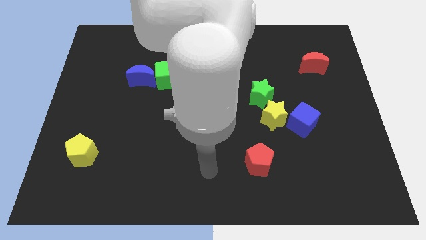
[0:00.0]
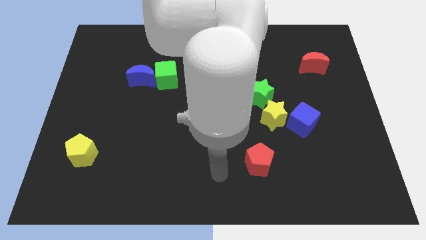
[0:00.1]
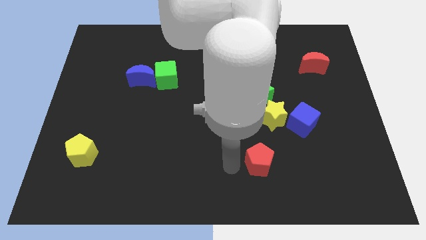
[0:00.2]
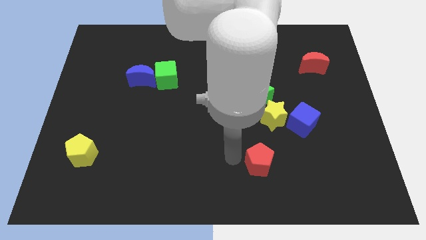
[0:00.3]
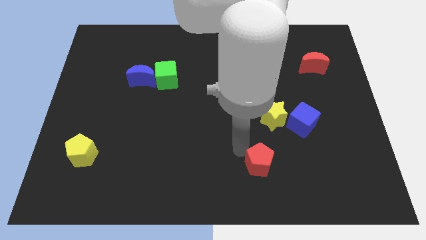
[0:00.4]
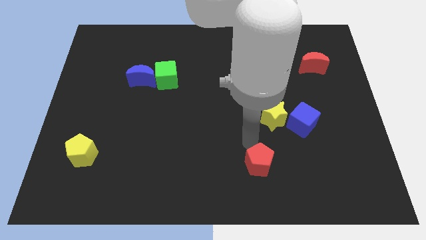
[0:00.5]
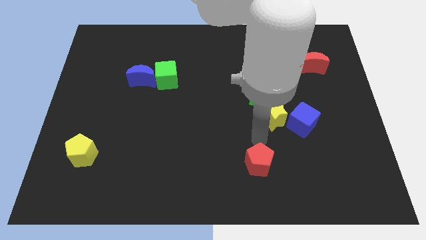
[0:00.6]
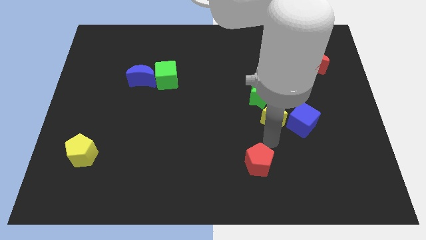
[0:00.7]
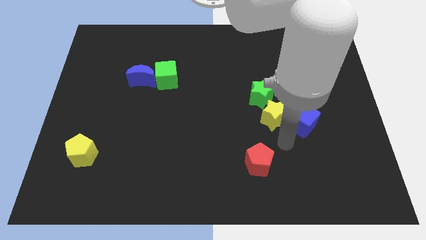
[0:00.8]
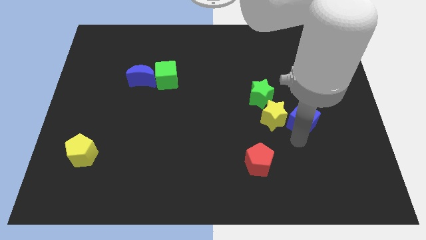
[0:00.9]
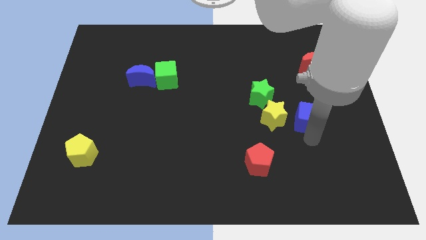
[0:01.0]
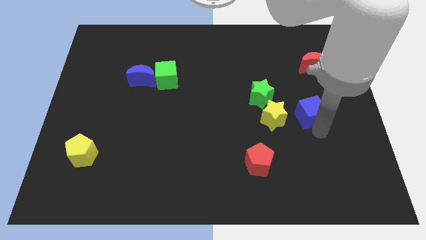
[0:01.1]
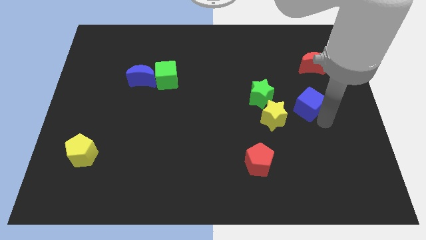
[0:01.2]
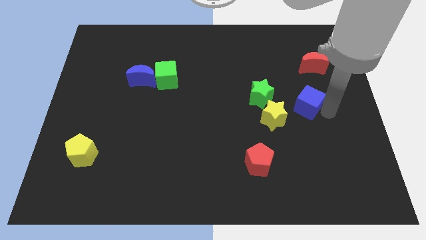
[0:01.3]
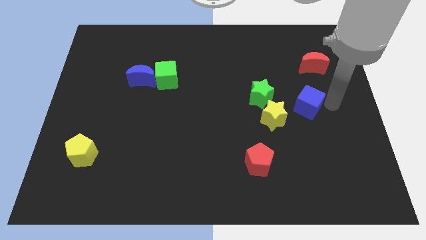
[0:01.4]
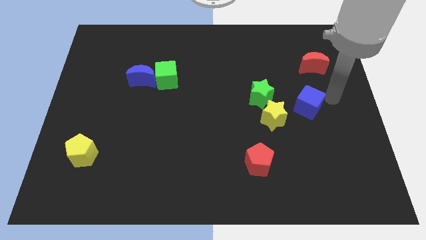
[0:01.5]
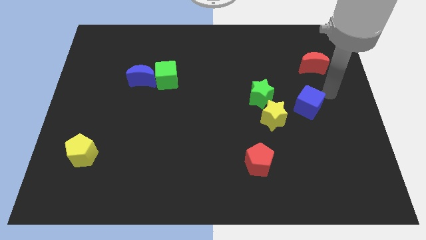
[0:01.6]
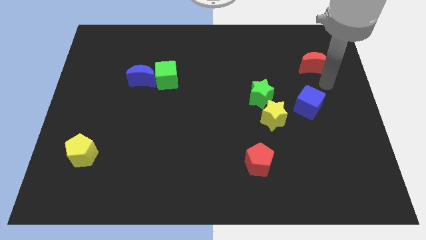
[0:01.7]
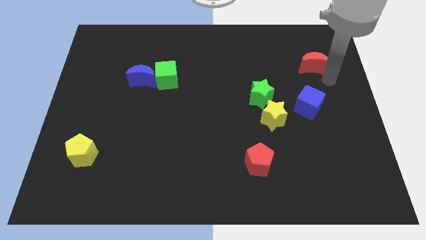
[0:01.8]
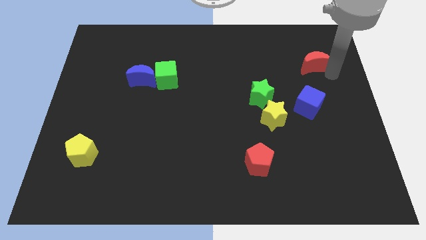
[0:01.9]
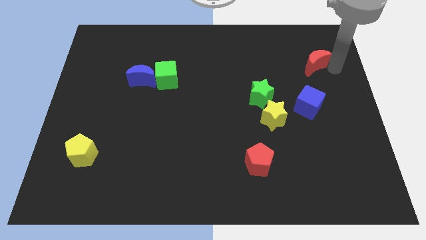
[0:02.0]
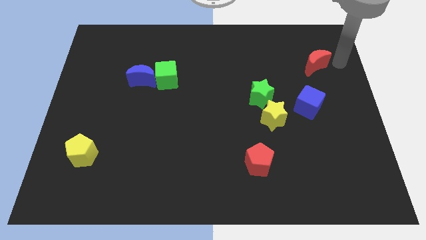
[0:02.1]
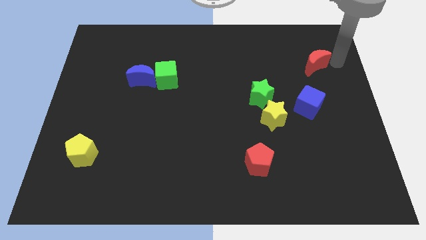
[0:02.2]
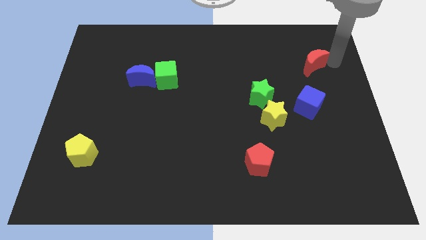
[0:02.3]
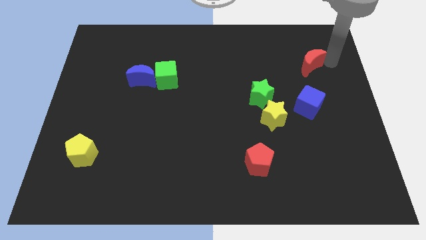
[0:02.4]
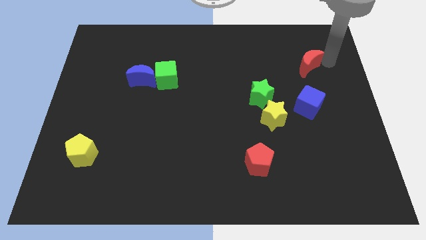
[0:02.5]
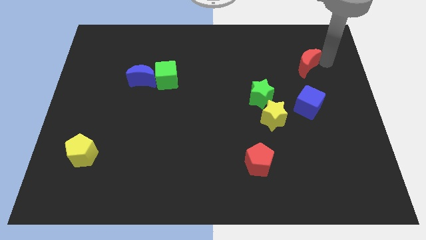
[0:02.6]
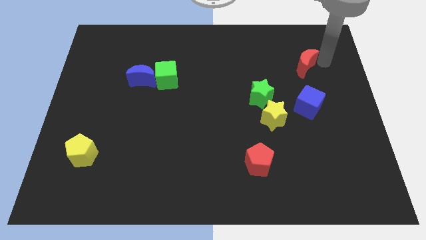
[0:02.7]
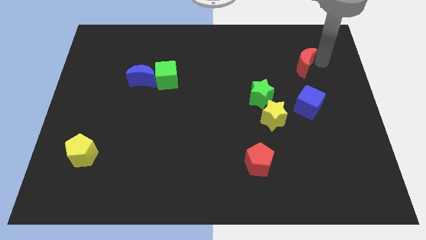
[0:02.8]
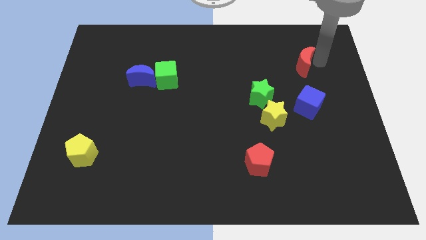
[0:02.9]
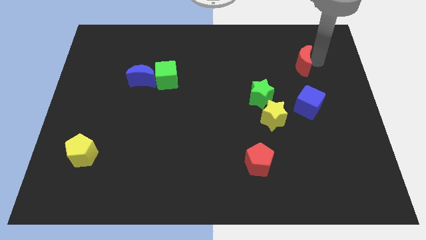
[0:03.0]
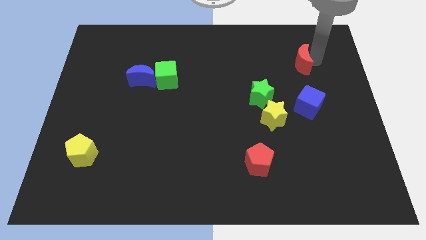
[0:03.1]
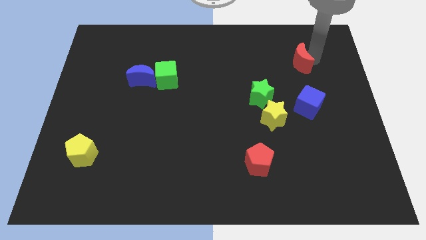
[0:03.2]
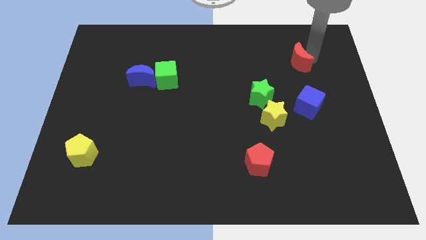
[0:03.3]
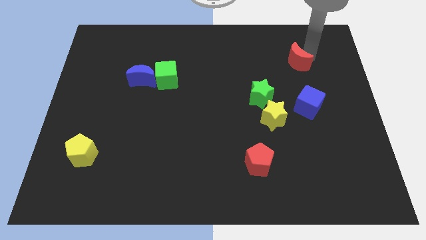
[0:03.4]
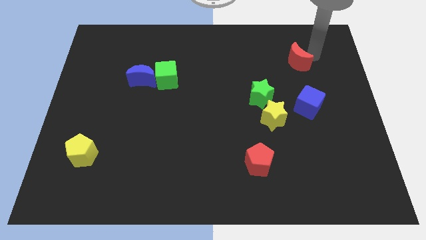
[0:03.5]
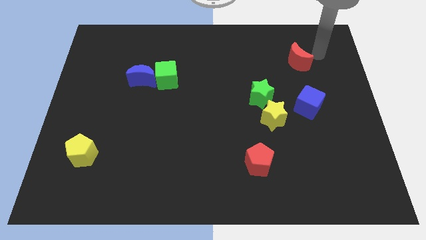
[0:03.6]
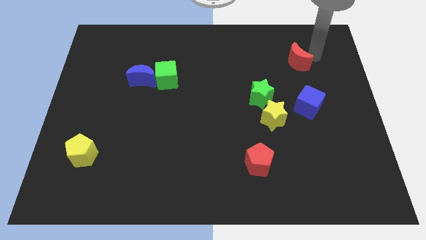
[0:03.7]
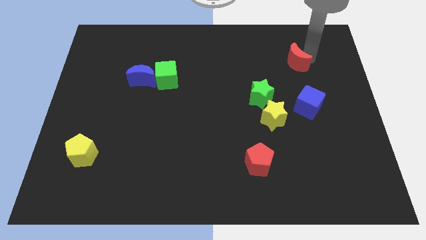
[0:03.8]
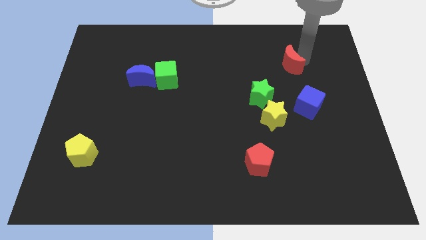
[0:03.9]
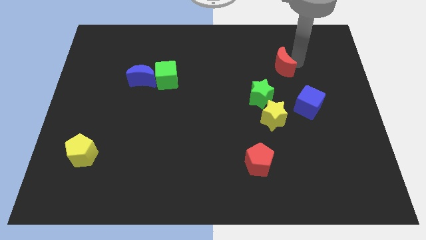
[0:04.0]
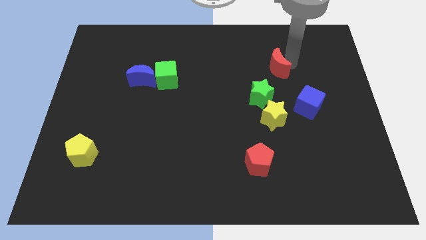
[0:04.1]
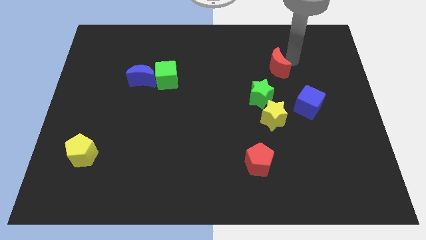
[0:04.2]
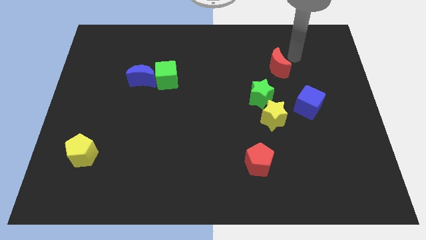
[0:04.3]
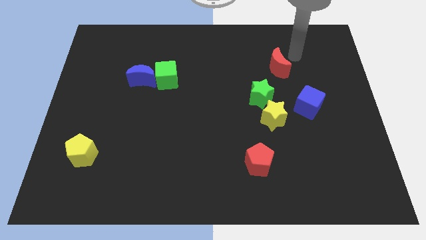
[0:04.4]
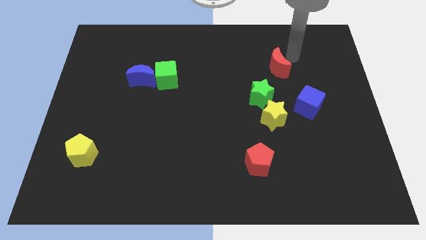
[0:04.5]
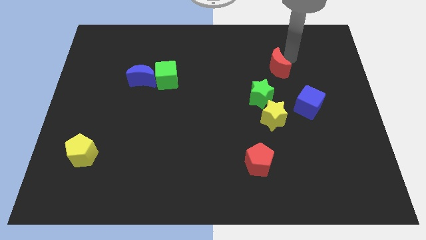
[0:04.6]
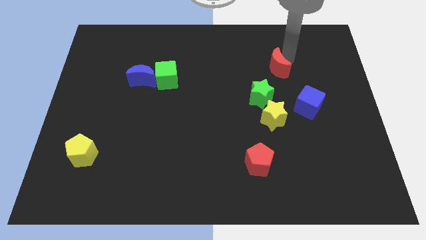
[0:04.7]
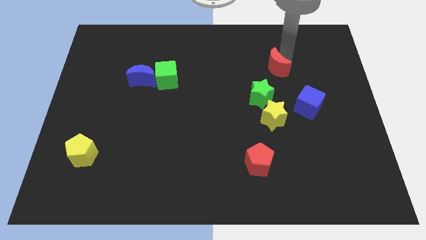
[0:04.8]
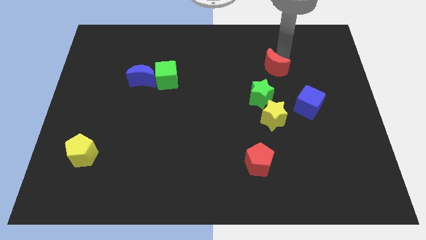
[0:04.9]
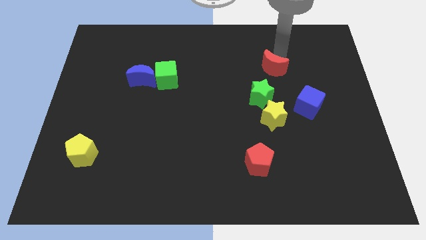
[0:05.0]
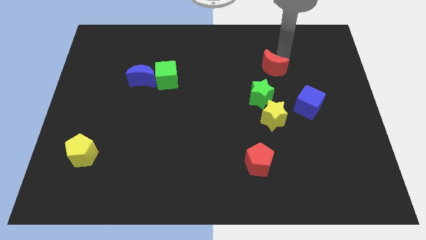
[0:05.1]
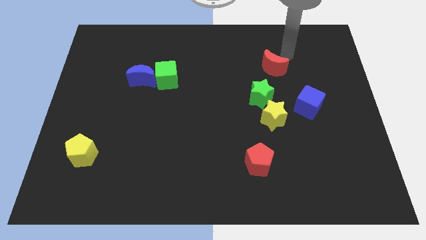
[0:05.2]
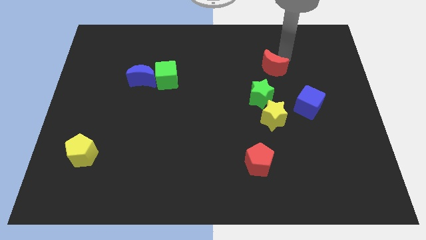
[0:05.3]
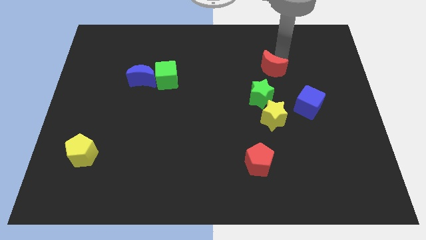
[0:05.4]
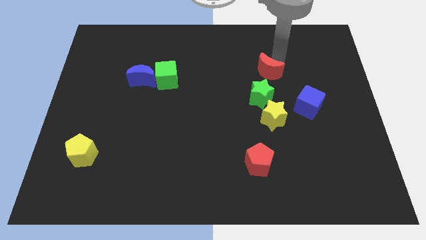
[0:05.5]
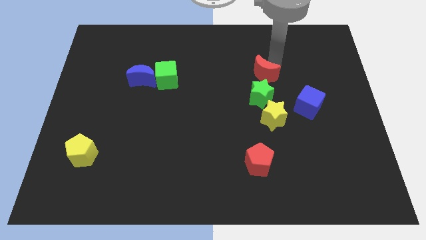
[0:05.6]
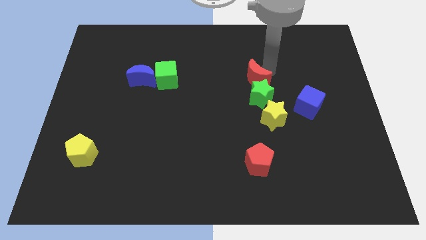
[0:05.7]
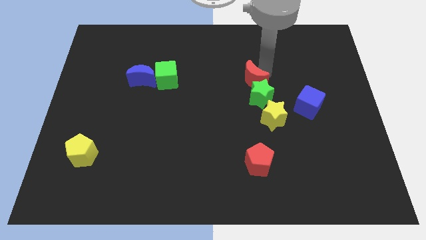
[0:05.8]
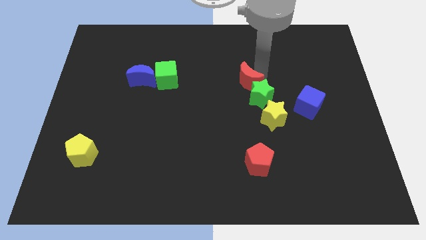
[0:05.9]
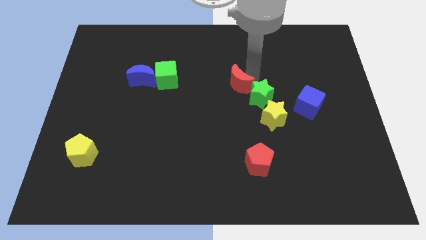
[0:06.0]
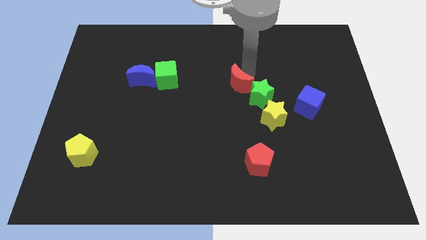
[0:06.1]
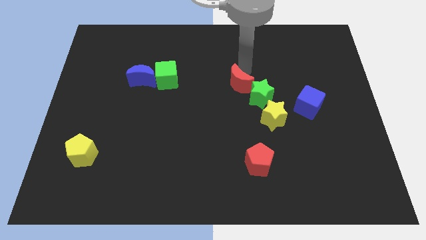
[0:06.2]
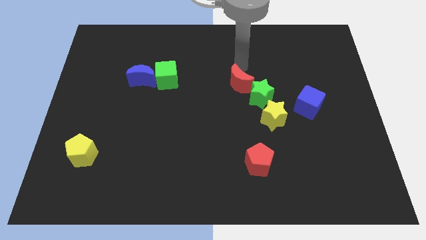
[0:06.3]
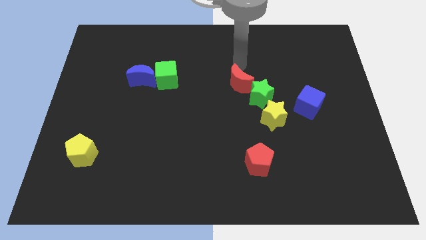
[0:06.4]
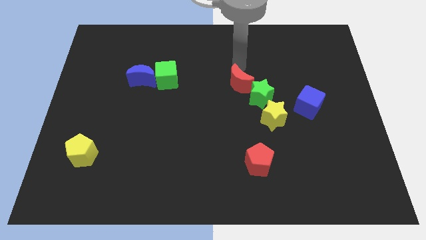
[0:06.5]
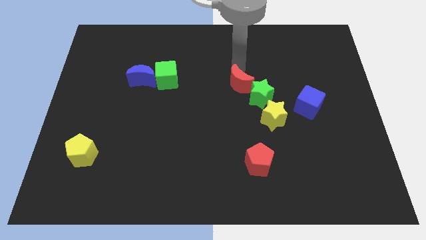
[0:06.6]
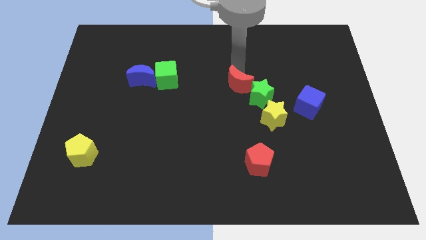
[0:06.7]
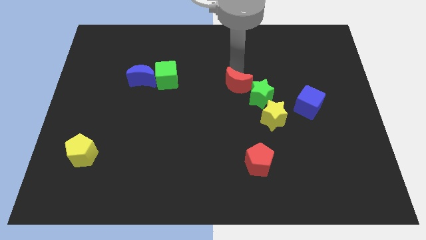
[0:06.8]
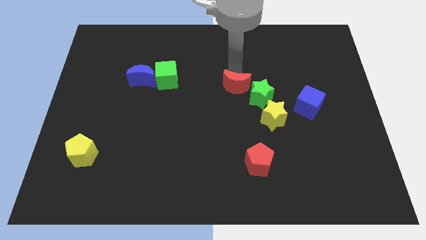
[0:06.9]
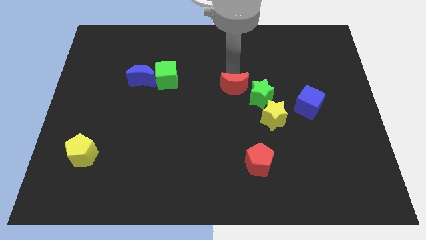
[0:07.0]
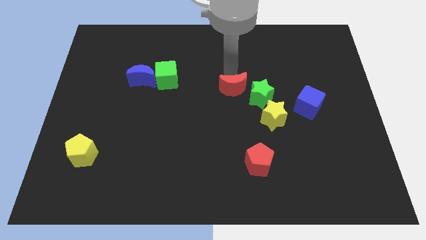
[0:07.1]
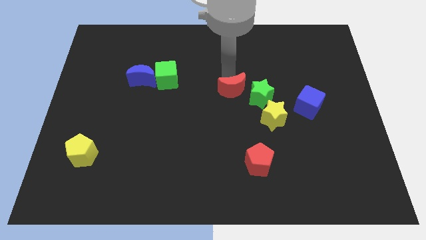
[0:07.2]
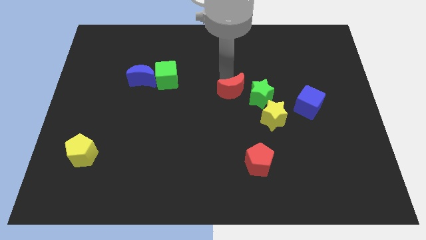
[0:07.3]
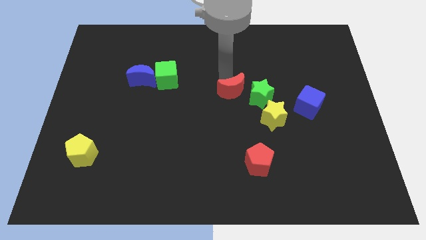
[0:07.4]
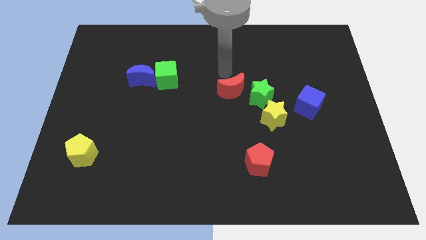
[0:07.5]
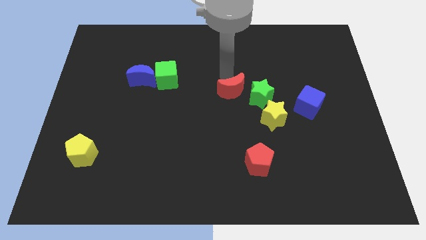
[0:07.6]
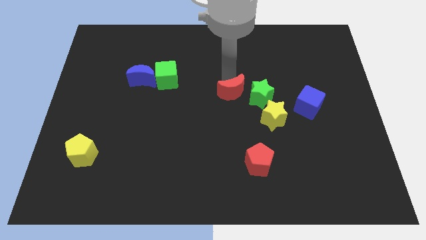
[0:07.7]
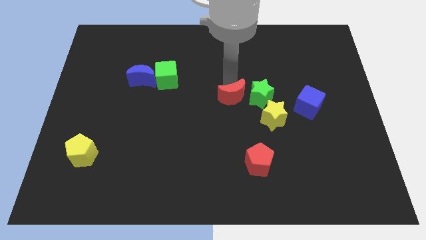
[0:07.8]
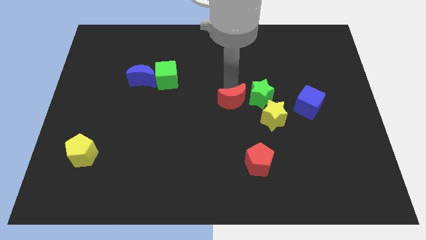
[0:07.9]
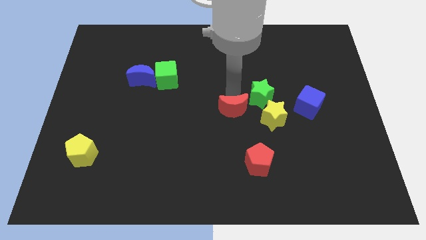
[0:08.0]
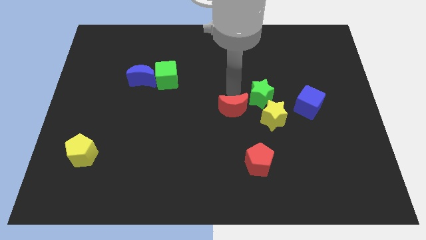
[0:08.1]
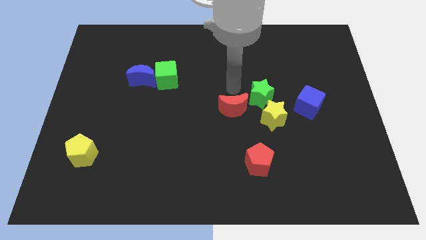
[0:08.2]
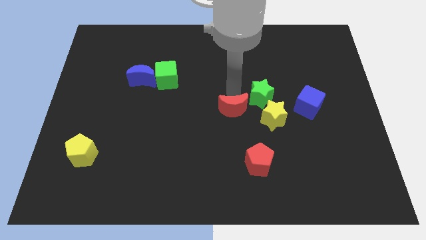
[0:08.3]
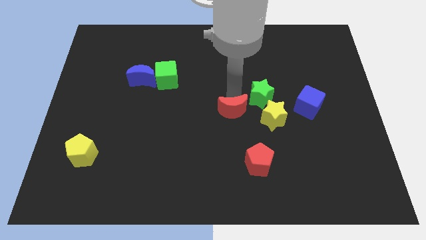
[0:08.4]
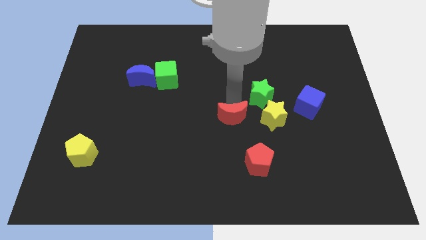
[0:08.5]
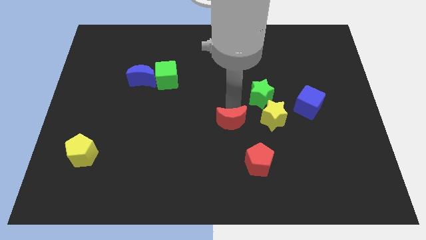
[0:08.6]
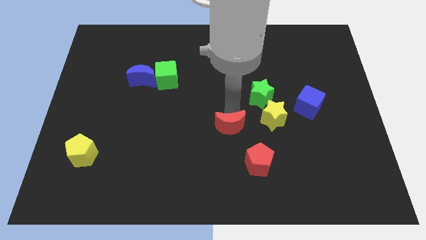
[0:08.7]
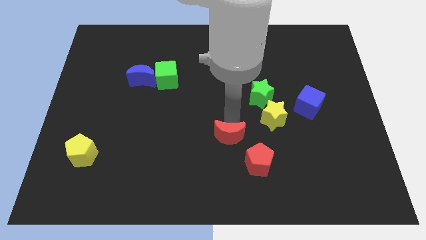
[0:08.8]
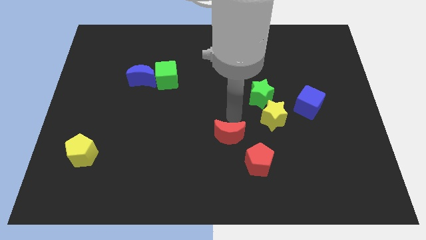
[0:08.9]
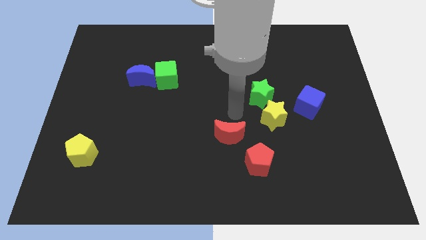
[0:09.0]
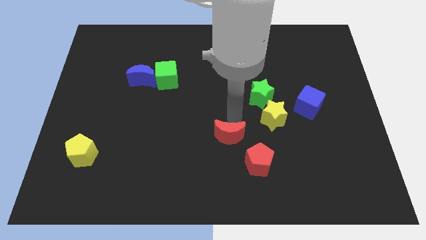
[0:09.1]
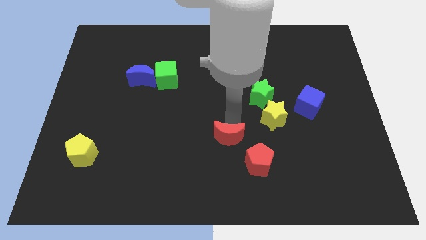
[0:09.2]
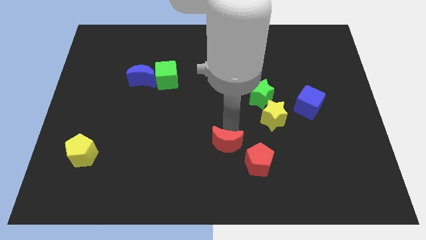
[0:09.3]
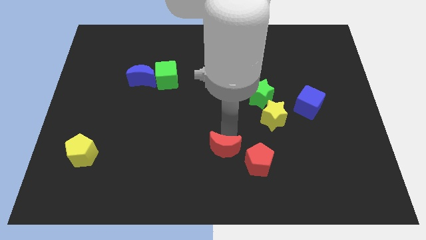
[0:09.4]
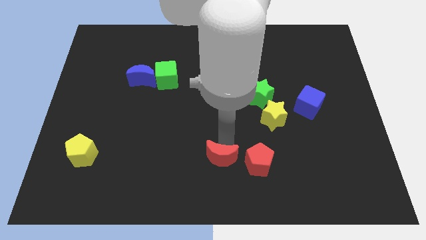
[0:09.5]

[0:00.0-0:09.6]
push the red moon to the bottom side
